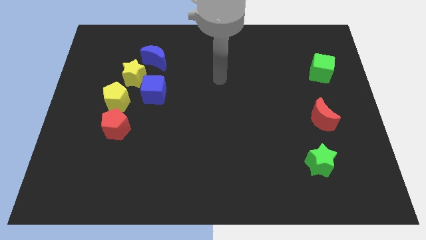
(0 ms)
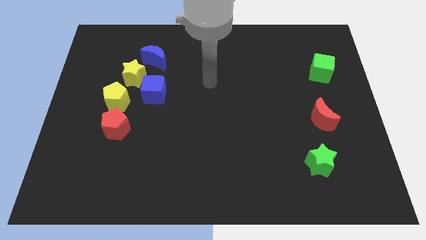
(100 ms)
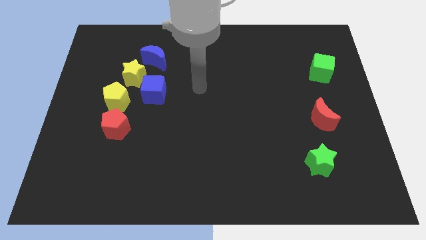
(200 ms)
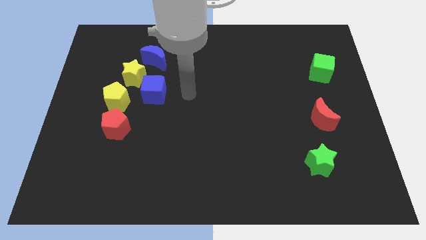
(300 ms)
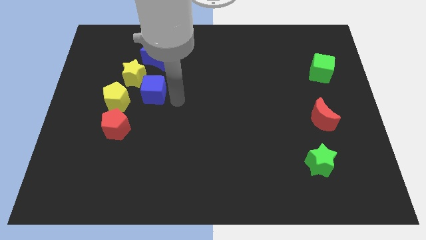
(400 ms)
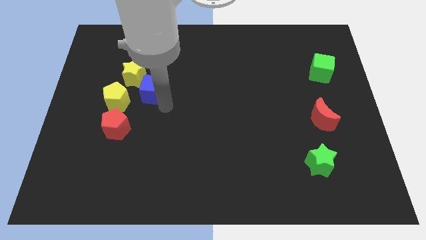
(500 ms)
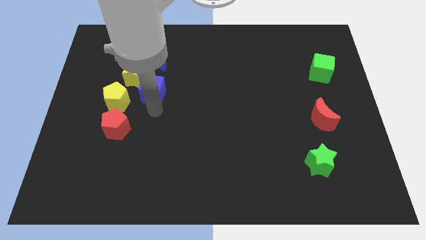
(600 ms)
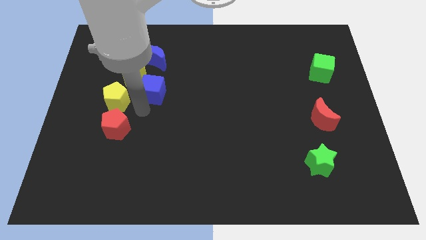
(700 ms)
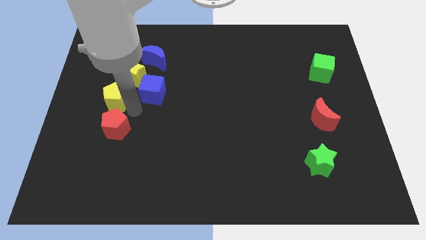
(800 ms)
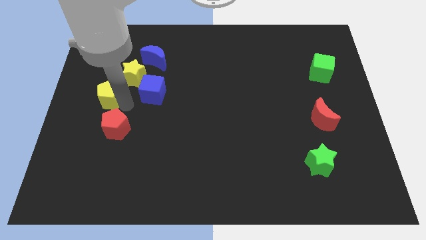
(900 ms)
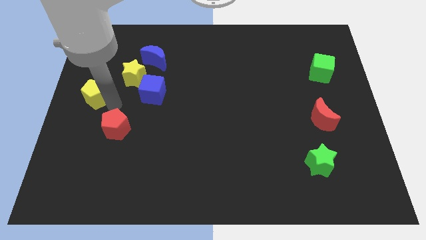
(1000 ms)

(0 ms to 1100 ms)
move the red pentagon away from the yellow pentagon

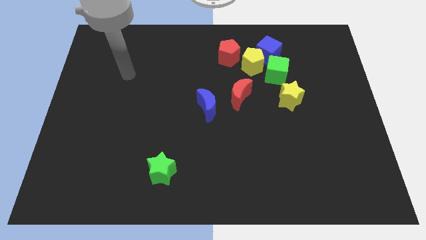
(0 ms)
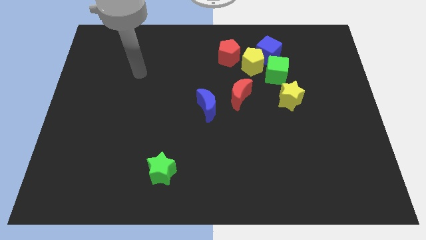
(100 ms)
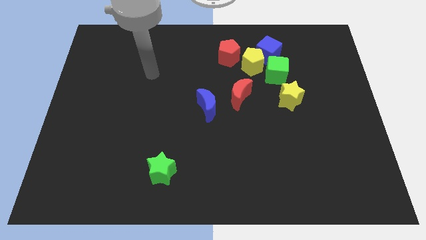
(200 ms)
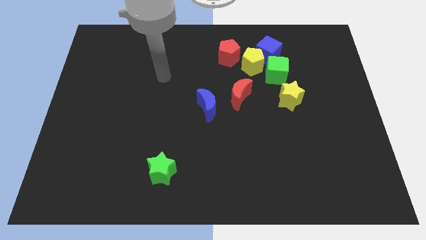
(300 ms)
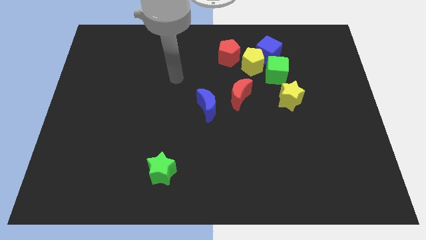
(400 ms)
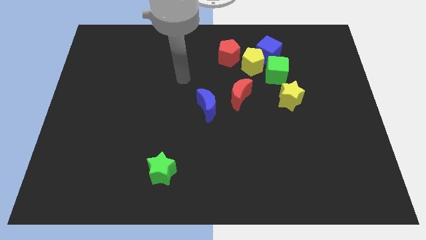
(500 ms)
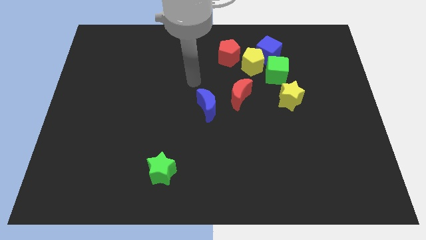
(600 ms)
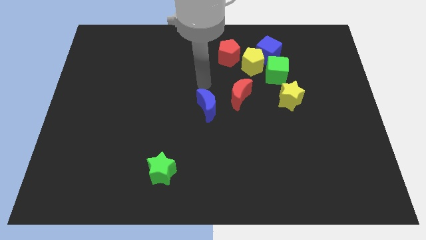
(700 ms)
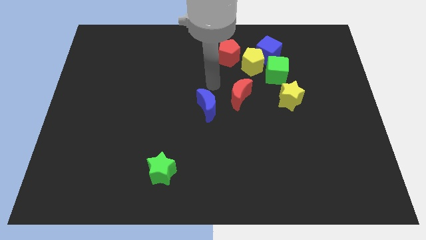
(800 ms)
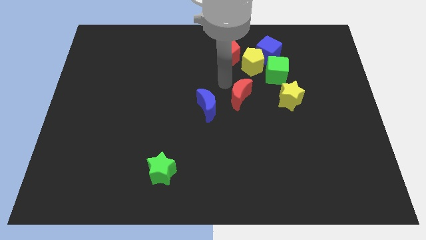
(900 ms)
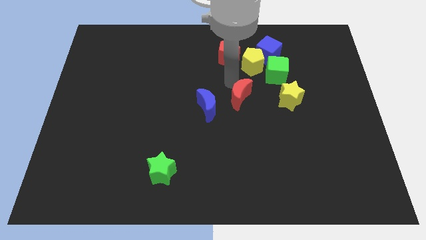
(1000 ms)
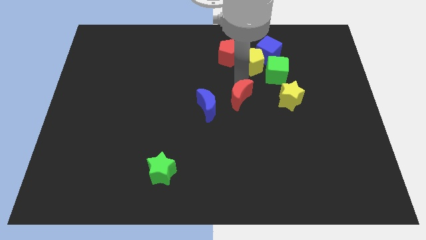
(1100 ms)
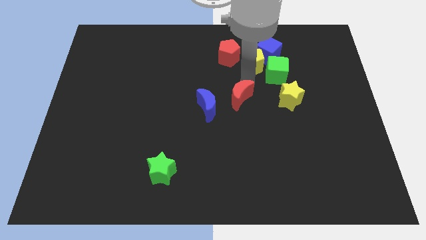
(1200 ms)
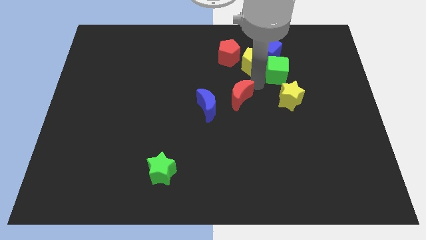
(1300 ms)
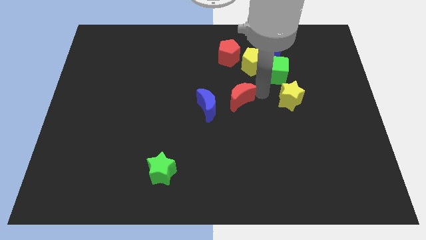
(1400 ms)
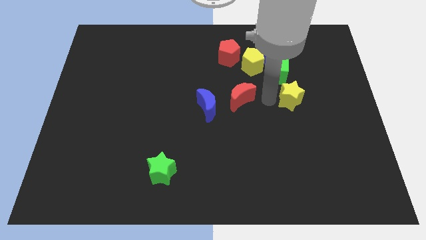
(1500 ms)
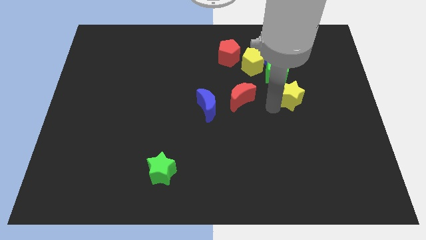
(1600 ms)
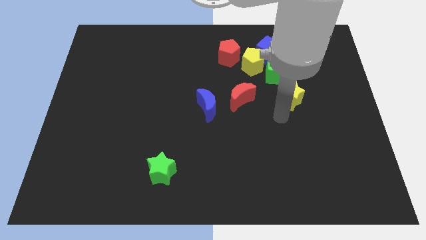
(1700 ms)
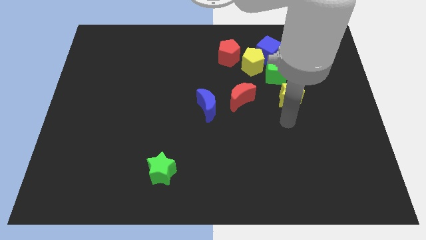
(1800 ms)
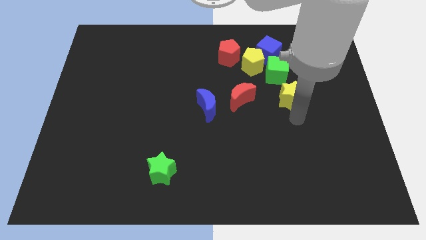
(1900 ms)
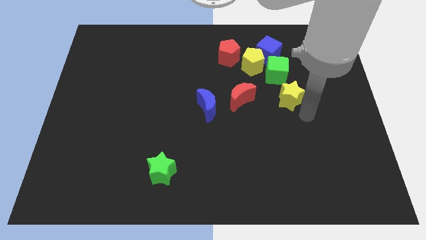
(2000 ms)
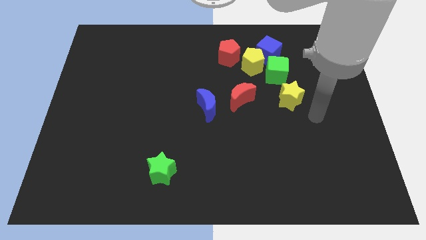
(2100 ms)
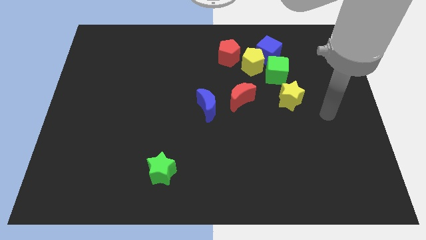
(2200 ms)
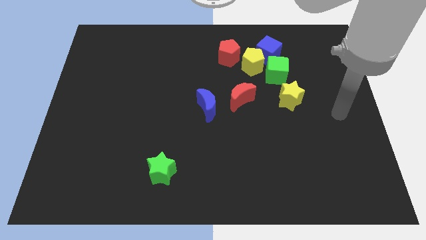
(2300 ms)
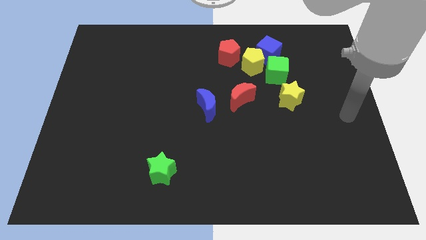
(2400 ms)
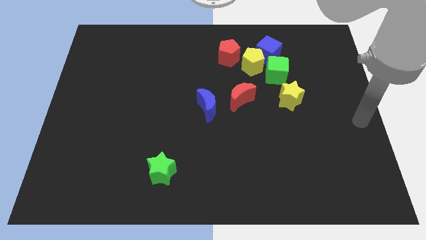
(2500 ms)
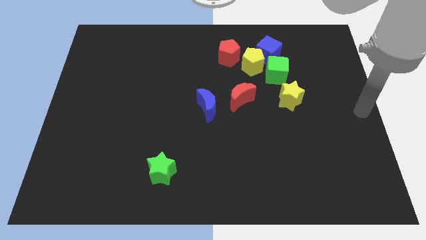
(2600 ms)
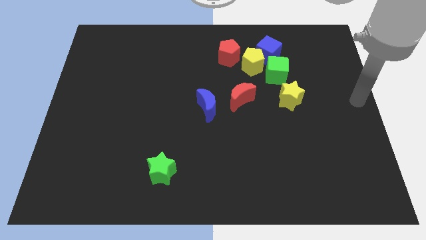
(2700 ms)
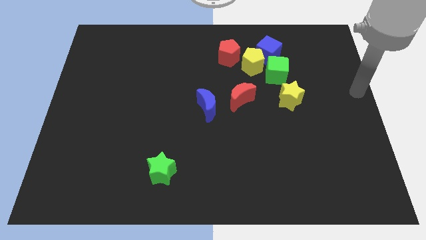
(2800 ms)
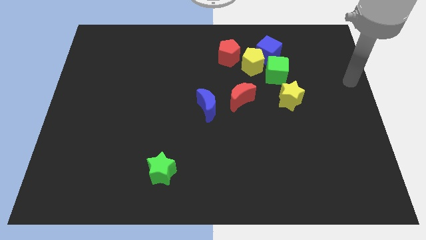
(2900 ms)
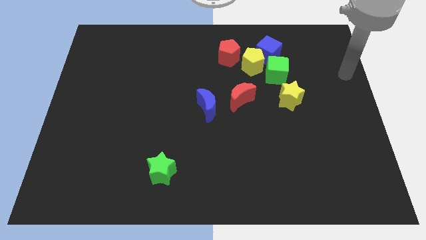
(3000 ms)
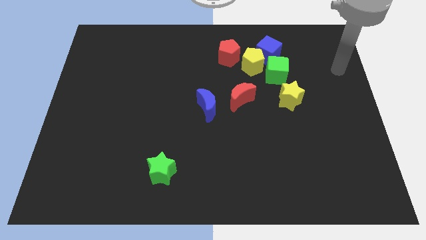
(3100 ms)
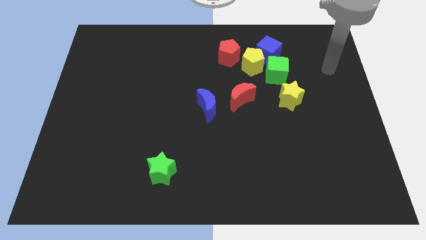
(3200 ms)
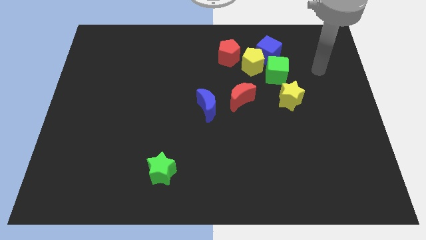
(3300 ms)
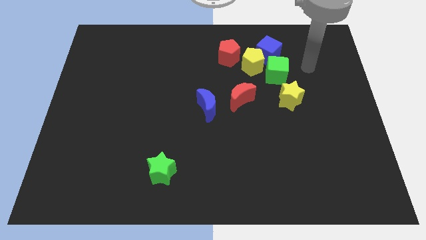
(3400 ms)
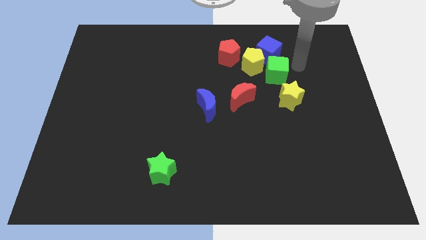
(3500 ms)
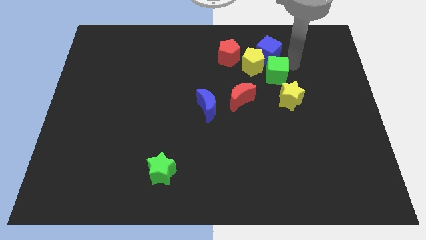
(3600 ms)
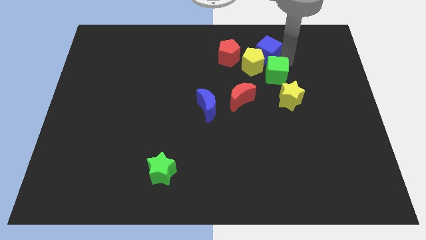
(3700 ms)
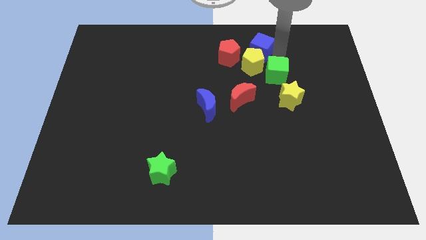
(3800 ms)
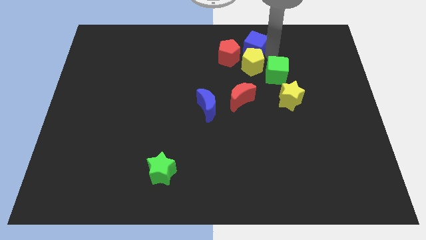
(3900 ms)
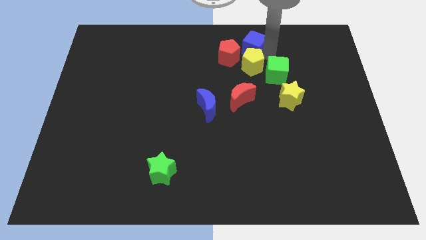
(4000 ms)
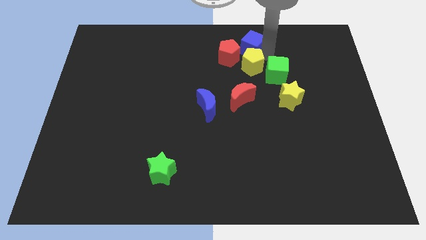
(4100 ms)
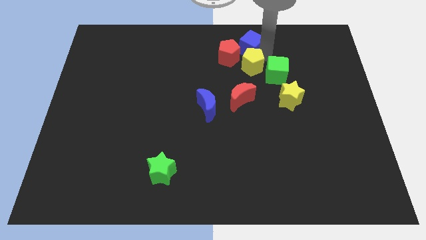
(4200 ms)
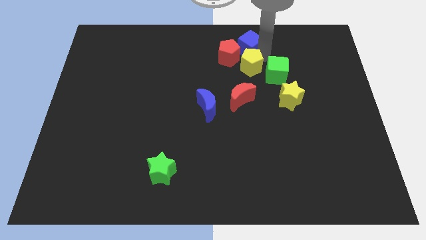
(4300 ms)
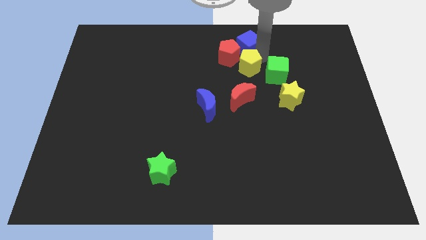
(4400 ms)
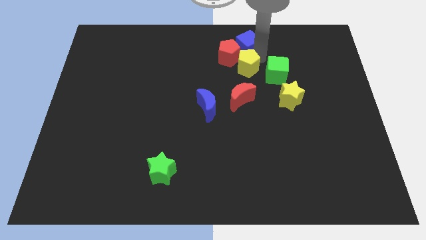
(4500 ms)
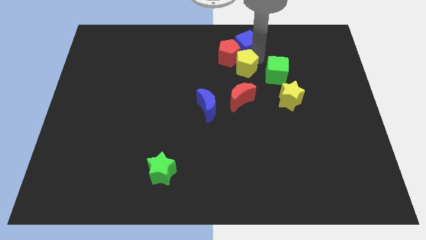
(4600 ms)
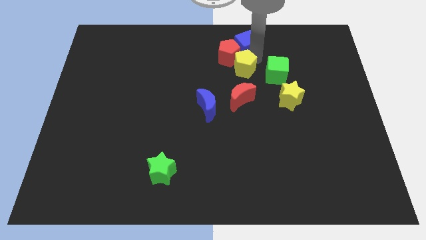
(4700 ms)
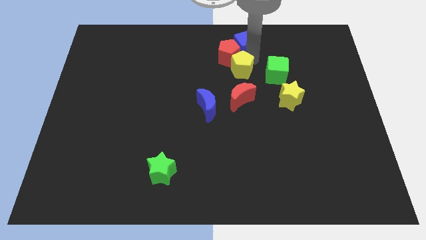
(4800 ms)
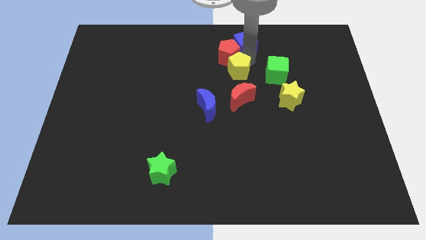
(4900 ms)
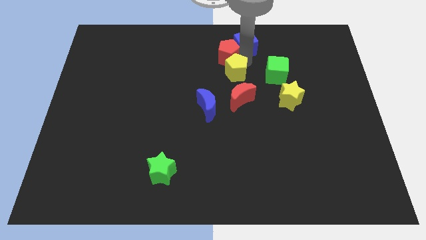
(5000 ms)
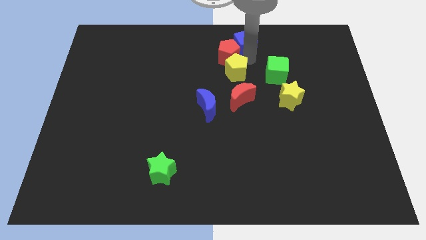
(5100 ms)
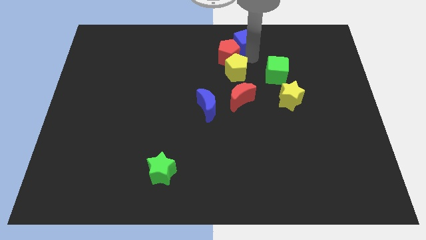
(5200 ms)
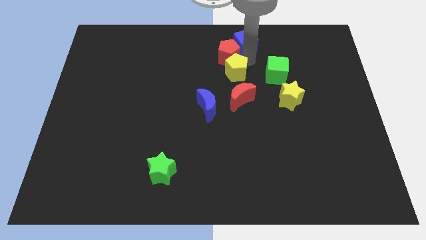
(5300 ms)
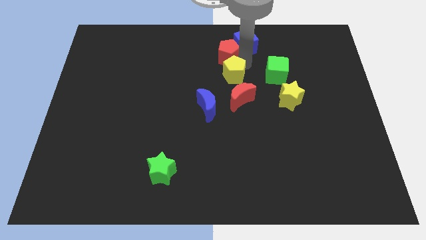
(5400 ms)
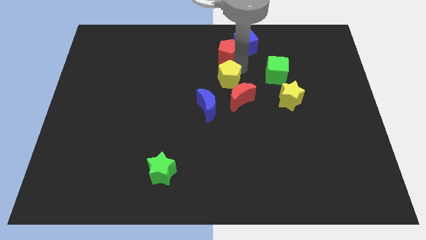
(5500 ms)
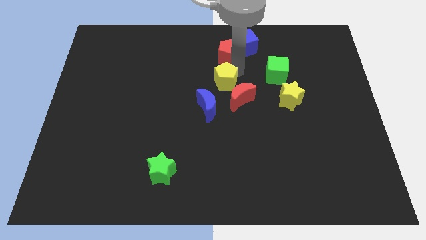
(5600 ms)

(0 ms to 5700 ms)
separate the yellow pentagon from the clump

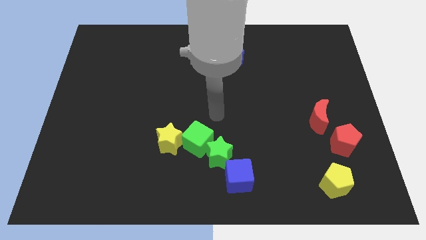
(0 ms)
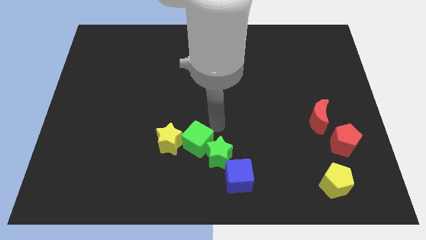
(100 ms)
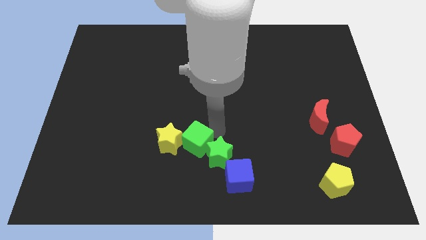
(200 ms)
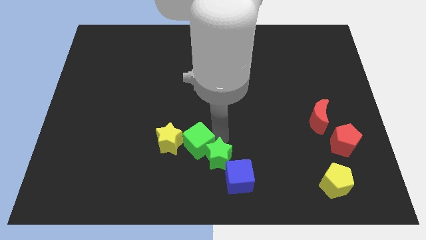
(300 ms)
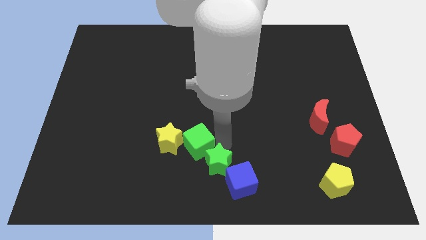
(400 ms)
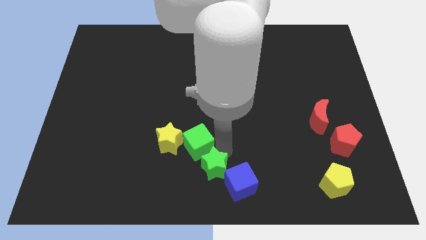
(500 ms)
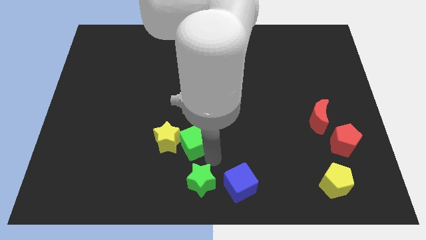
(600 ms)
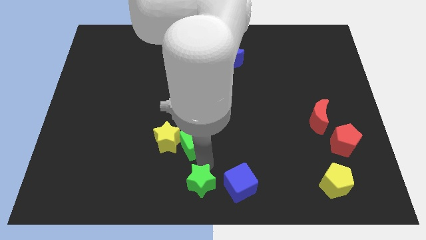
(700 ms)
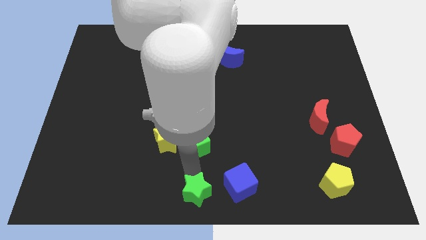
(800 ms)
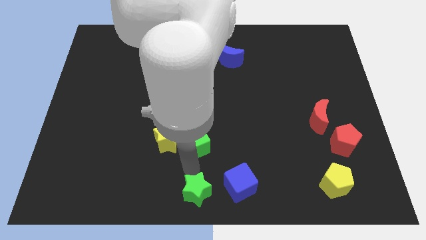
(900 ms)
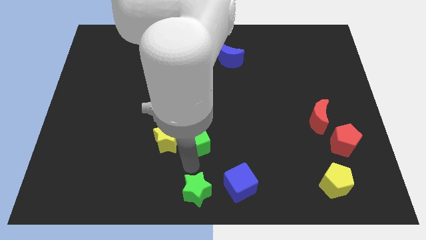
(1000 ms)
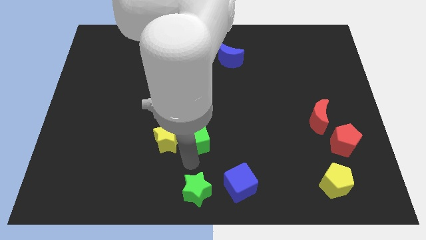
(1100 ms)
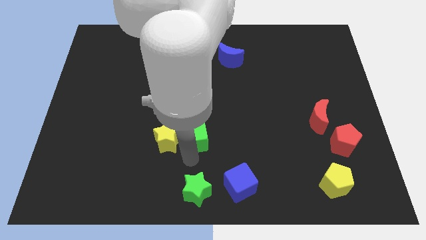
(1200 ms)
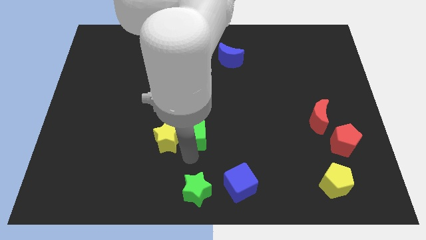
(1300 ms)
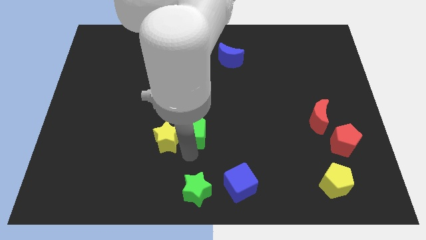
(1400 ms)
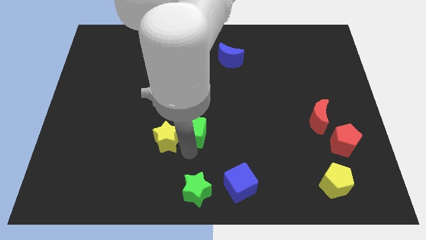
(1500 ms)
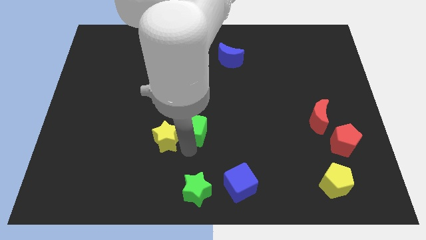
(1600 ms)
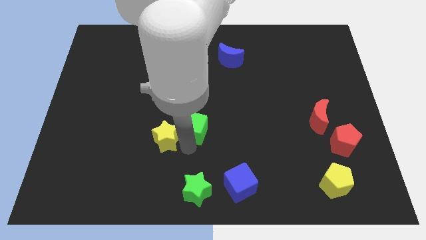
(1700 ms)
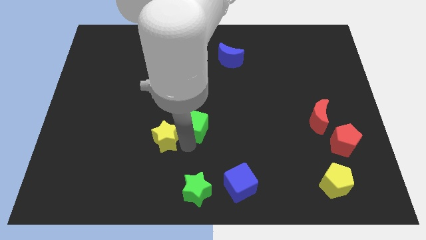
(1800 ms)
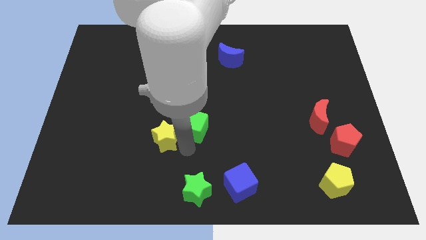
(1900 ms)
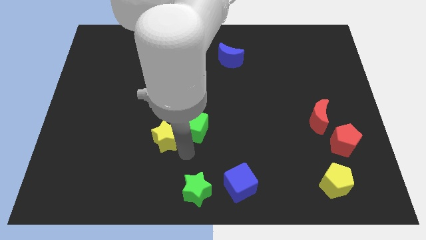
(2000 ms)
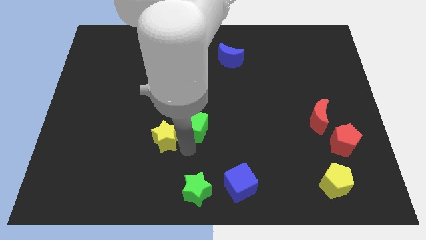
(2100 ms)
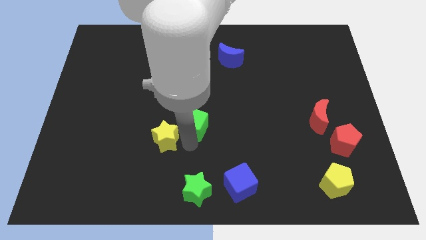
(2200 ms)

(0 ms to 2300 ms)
separate the green cube from the green star and yellow star

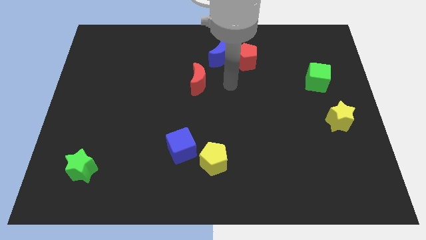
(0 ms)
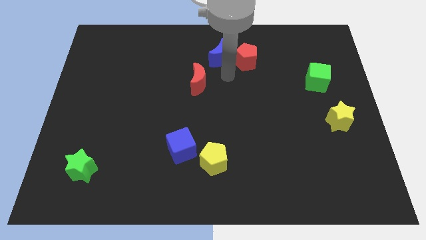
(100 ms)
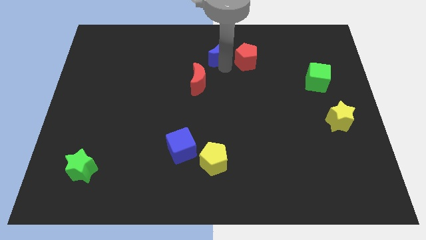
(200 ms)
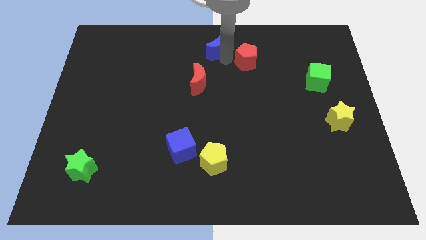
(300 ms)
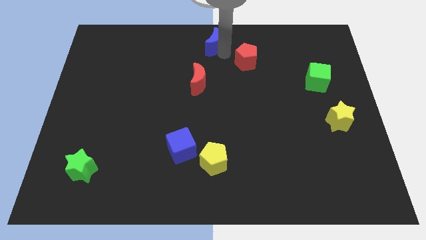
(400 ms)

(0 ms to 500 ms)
pull the red pentagon apart from the blue moon
